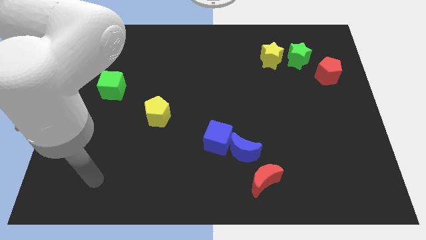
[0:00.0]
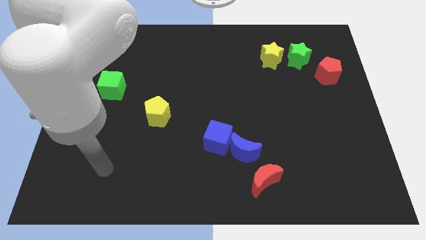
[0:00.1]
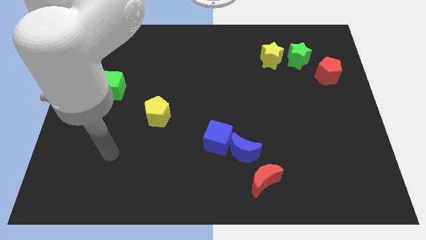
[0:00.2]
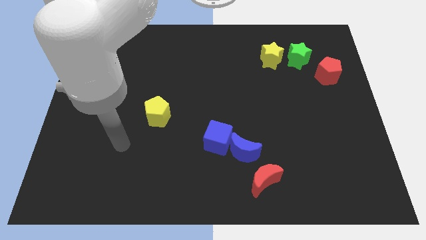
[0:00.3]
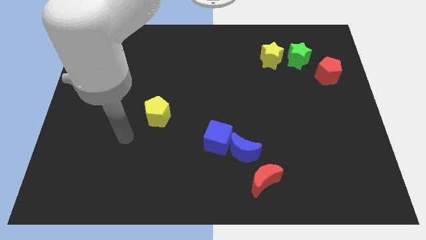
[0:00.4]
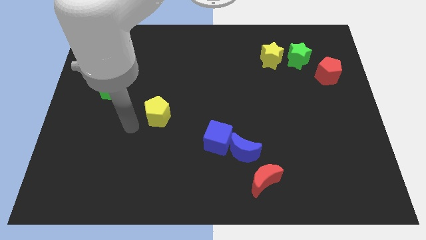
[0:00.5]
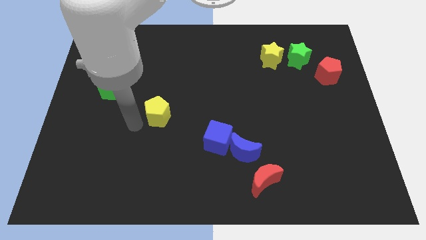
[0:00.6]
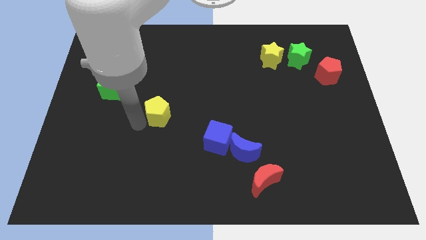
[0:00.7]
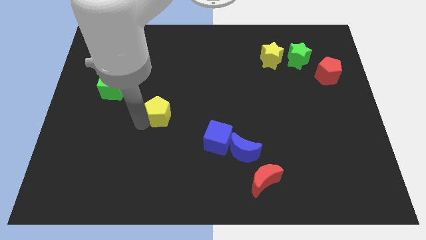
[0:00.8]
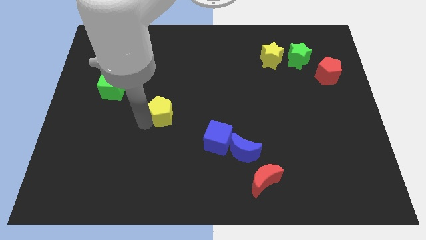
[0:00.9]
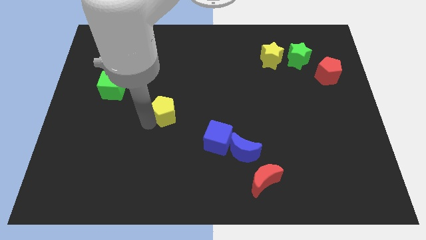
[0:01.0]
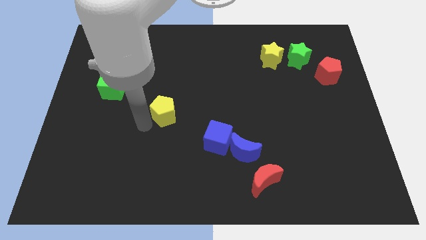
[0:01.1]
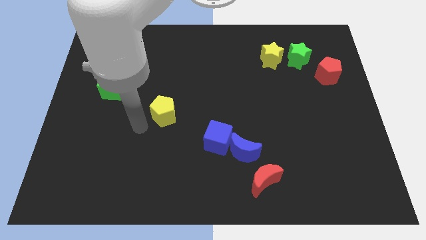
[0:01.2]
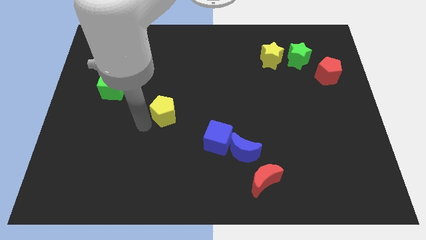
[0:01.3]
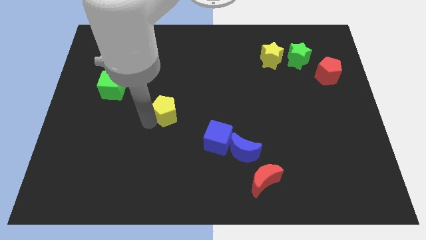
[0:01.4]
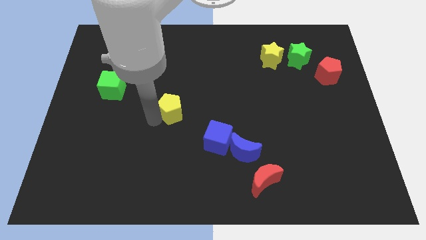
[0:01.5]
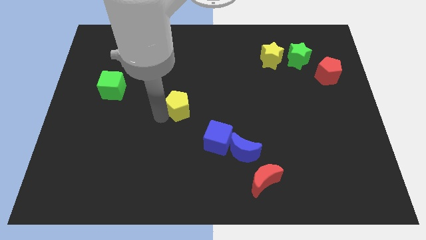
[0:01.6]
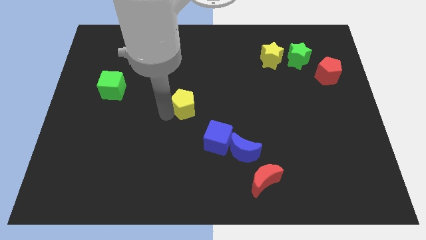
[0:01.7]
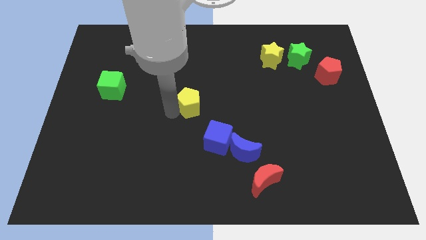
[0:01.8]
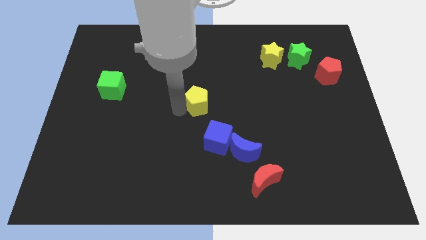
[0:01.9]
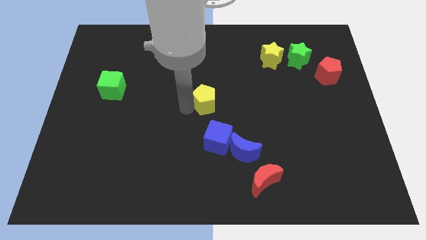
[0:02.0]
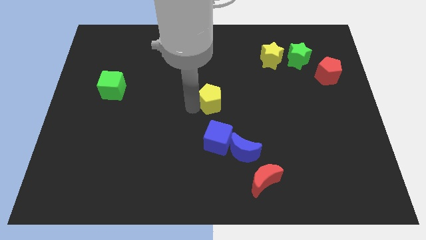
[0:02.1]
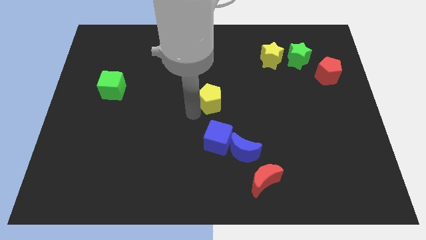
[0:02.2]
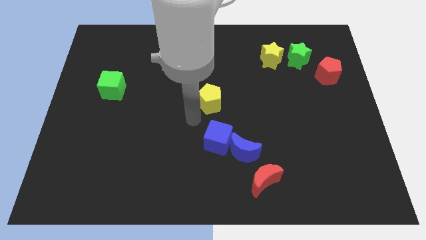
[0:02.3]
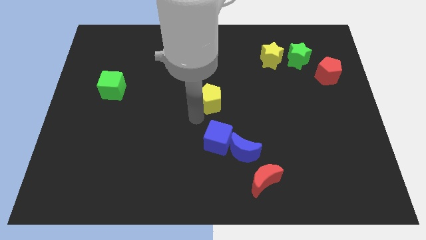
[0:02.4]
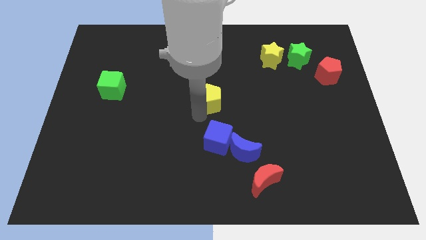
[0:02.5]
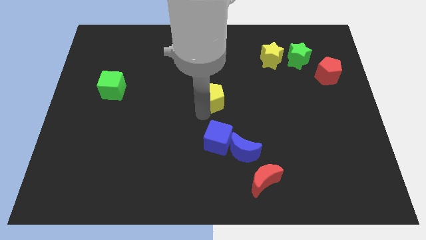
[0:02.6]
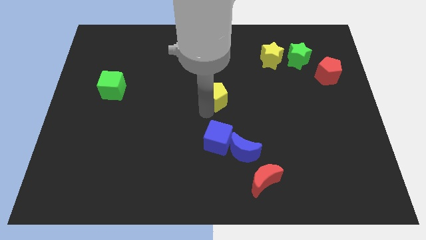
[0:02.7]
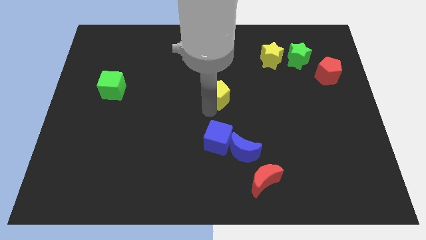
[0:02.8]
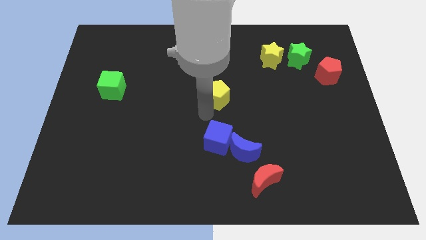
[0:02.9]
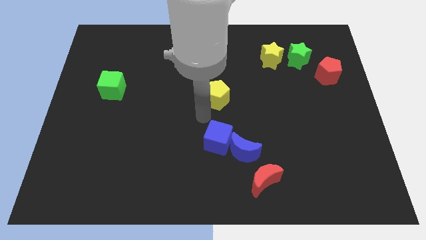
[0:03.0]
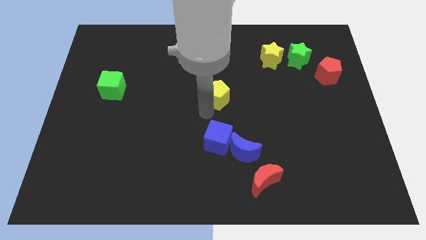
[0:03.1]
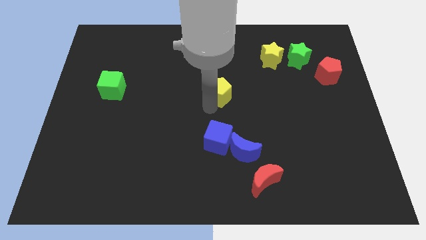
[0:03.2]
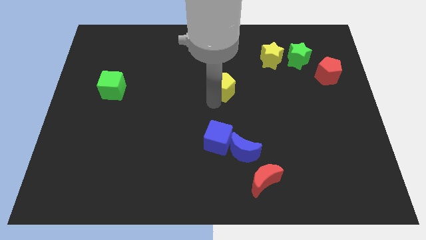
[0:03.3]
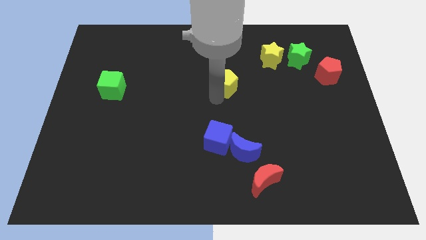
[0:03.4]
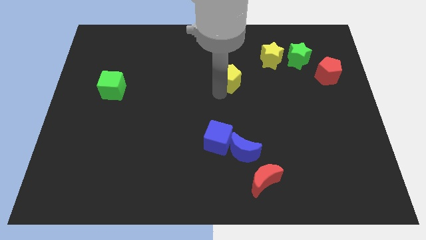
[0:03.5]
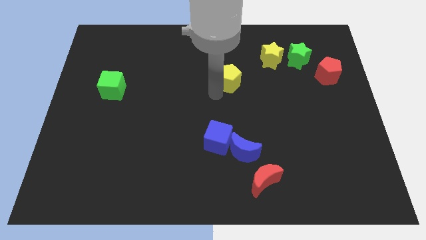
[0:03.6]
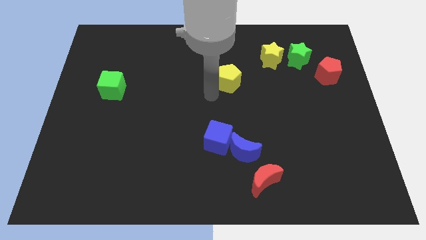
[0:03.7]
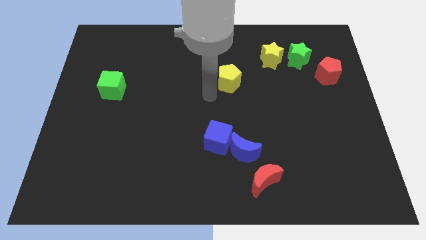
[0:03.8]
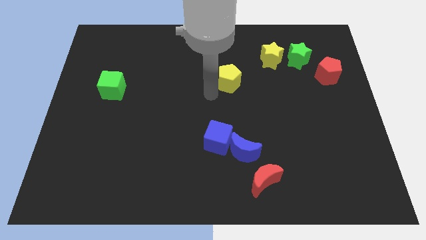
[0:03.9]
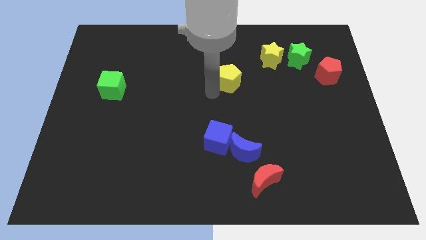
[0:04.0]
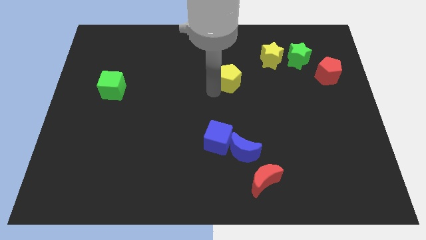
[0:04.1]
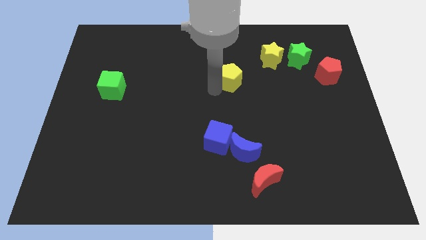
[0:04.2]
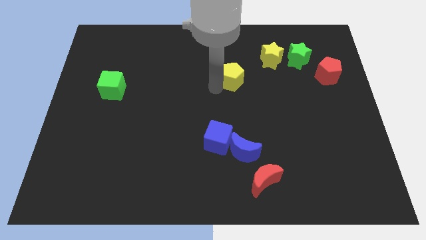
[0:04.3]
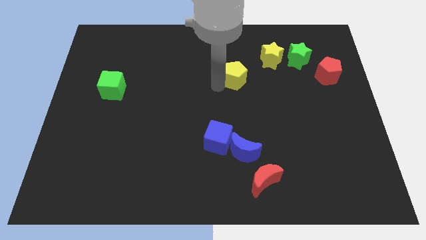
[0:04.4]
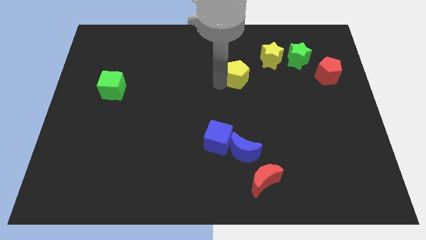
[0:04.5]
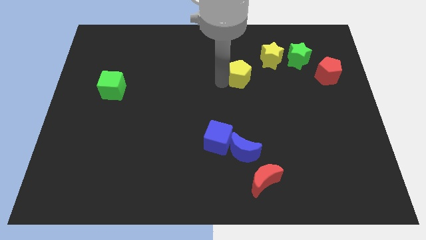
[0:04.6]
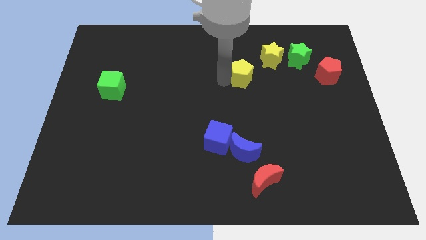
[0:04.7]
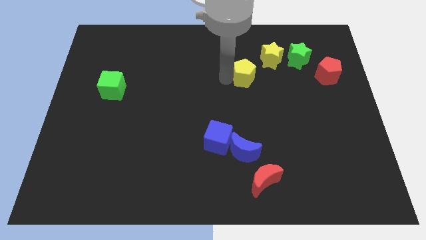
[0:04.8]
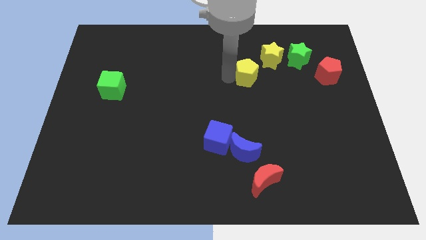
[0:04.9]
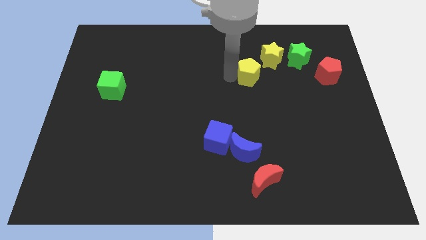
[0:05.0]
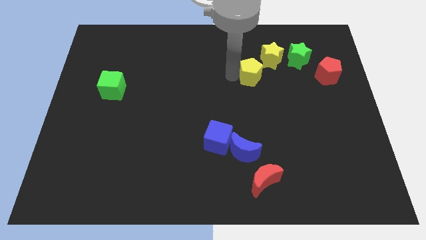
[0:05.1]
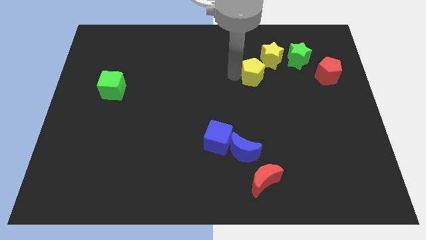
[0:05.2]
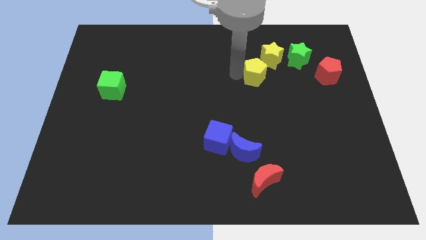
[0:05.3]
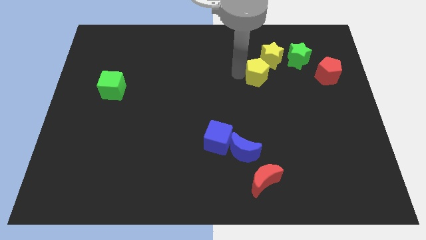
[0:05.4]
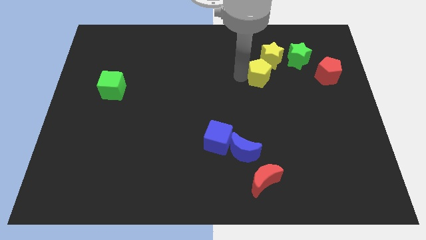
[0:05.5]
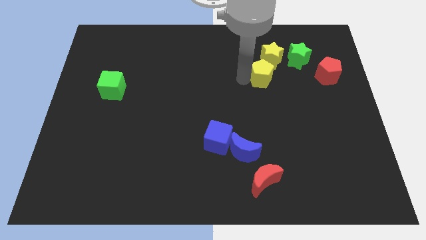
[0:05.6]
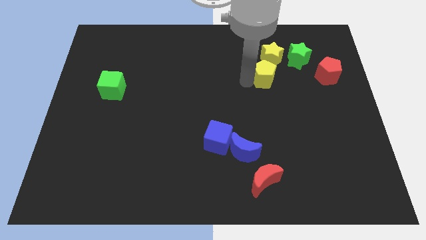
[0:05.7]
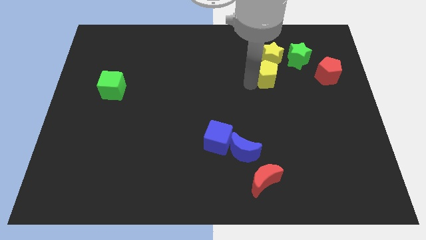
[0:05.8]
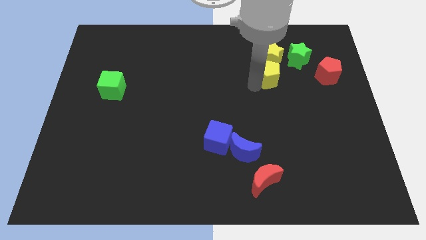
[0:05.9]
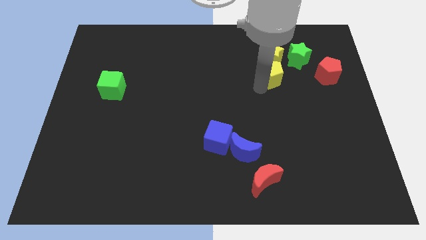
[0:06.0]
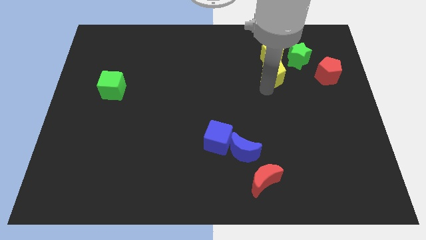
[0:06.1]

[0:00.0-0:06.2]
put the yellow pentagon to the yellow star

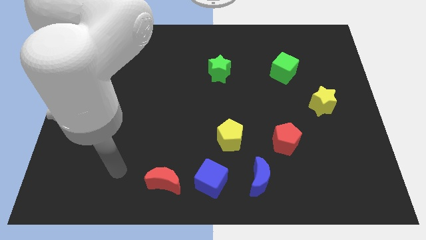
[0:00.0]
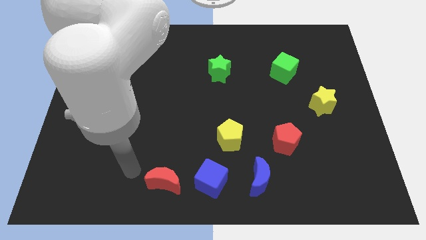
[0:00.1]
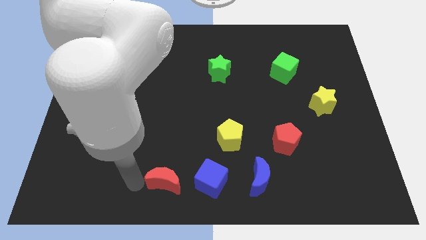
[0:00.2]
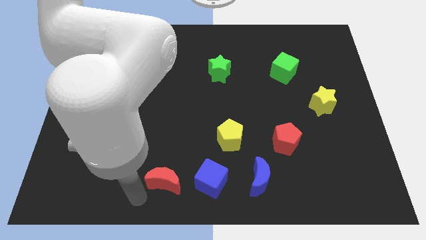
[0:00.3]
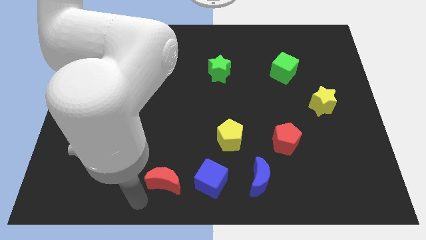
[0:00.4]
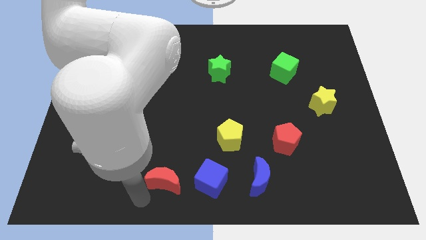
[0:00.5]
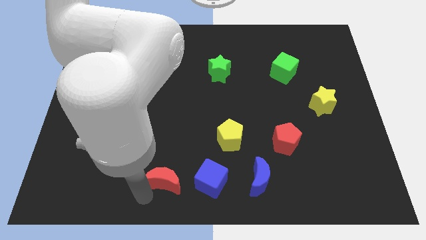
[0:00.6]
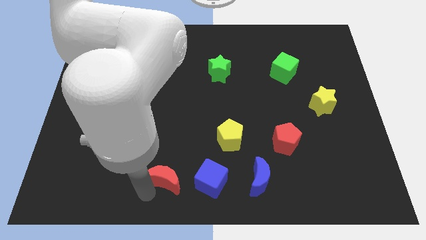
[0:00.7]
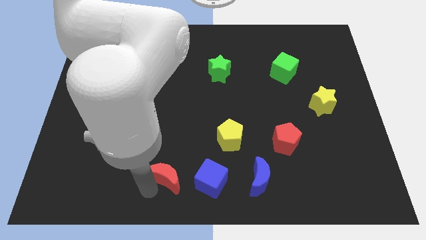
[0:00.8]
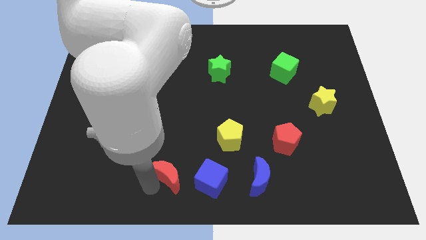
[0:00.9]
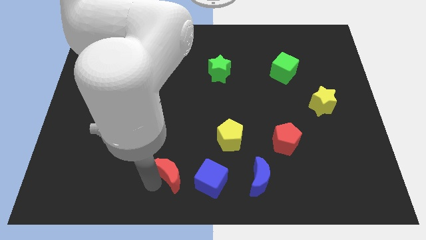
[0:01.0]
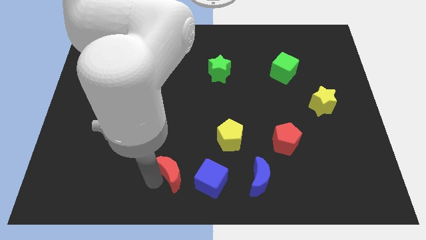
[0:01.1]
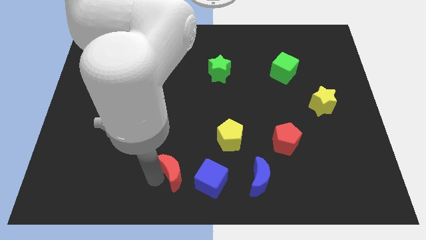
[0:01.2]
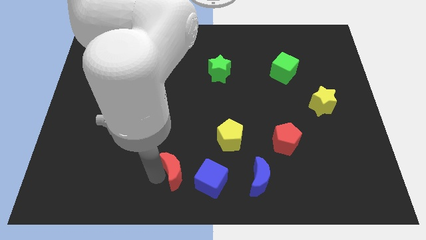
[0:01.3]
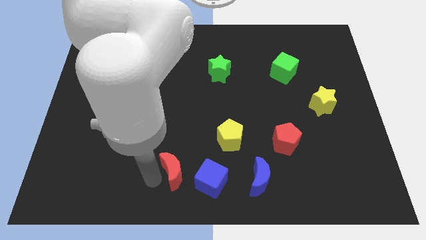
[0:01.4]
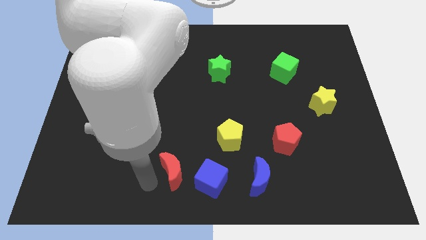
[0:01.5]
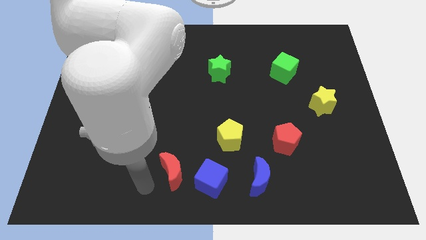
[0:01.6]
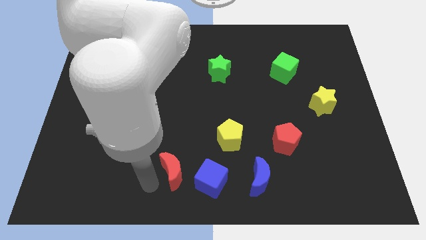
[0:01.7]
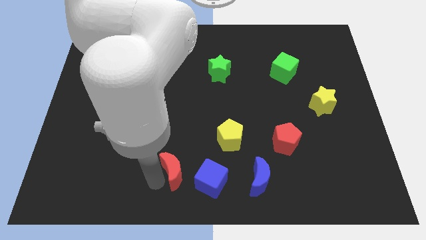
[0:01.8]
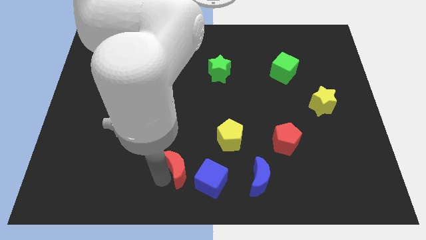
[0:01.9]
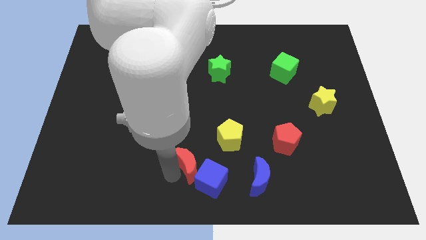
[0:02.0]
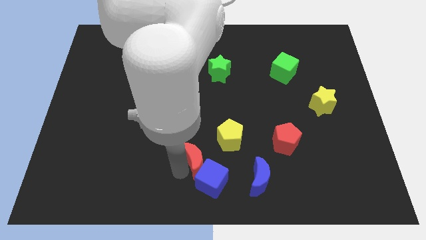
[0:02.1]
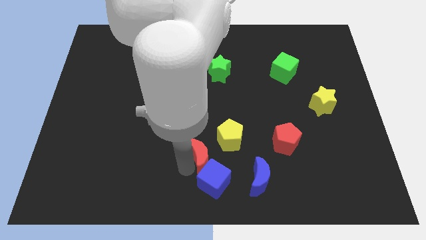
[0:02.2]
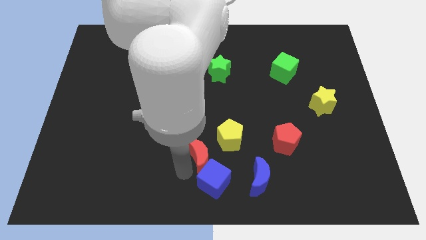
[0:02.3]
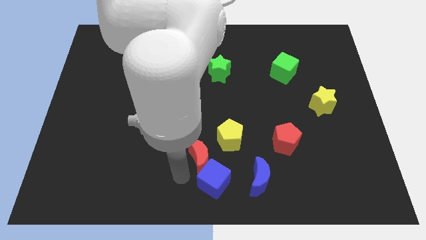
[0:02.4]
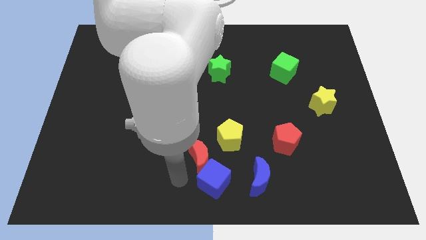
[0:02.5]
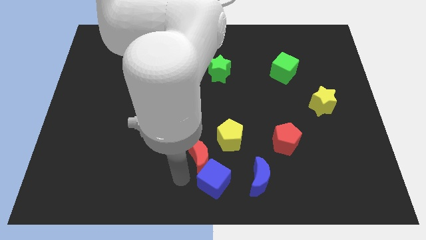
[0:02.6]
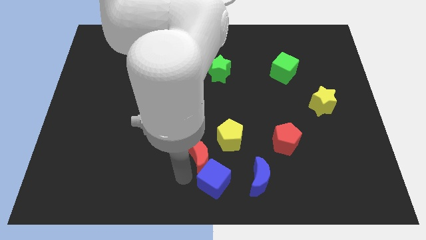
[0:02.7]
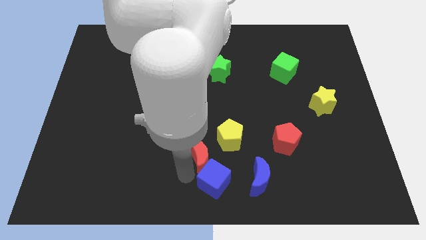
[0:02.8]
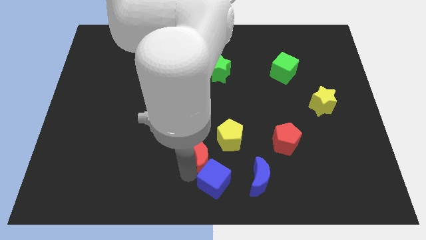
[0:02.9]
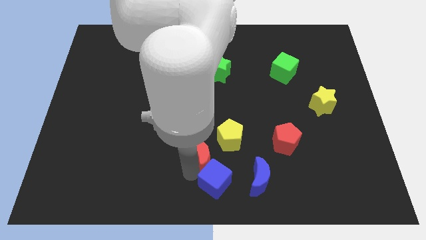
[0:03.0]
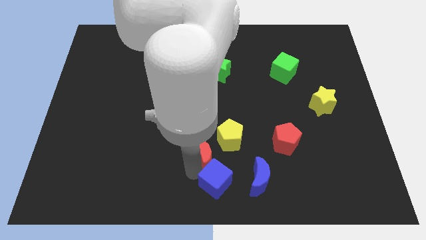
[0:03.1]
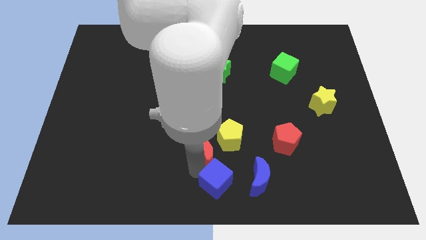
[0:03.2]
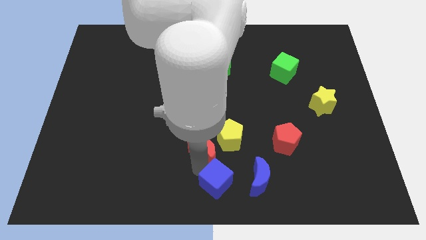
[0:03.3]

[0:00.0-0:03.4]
move the red moon to the yellow pentagon
